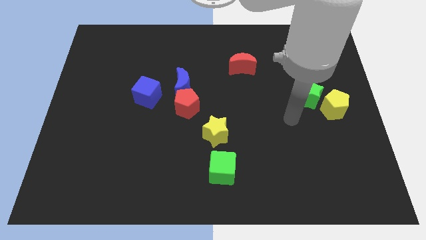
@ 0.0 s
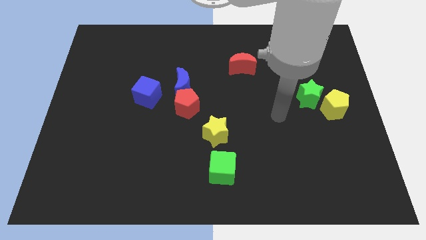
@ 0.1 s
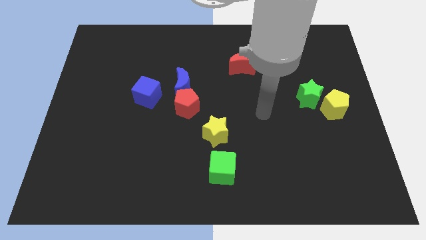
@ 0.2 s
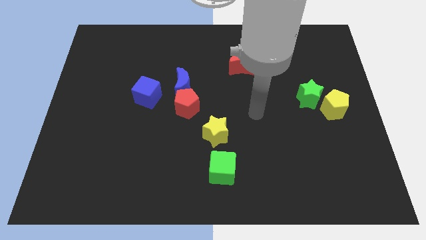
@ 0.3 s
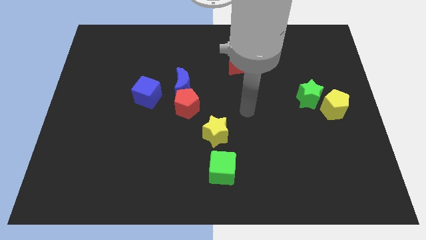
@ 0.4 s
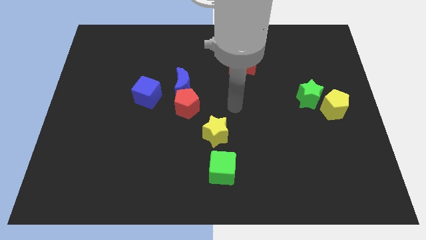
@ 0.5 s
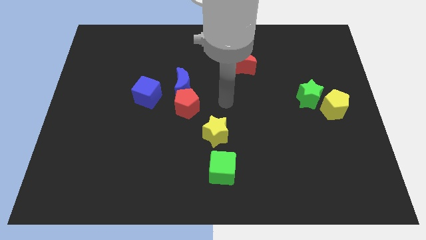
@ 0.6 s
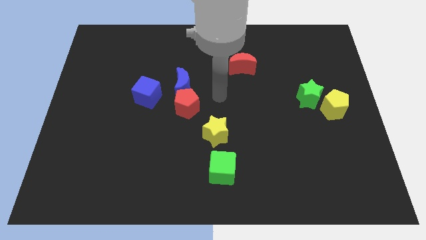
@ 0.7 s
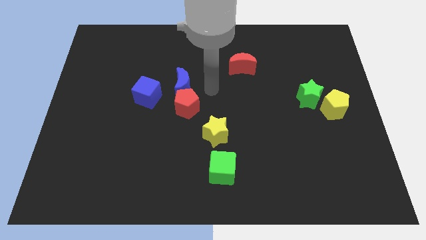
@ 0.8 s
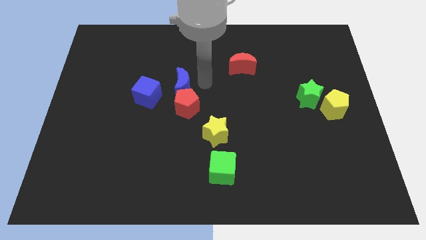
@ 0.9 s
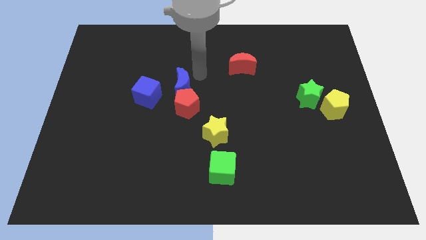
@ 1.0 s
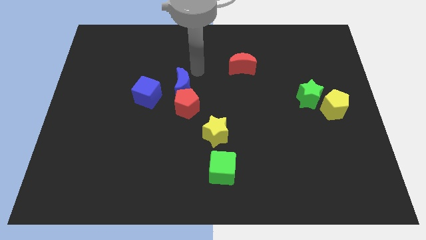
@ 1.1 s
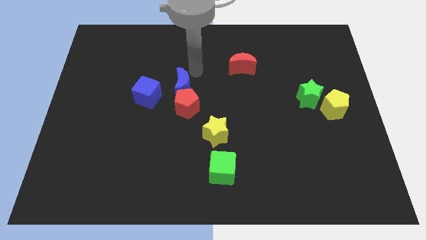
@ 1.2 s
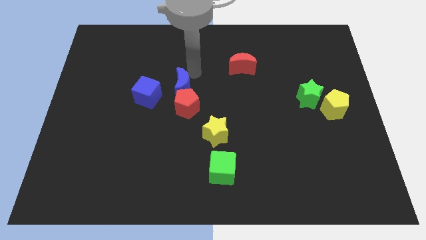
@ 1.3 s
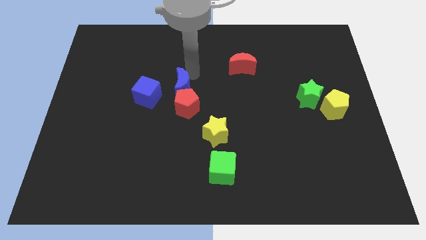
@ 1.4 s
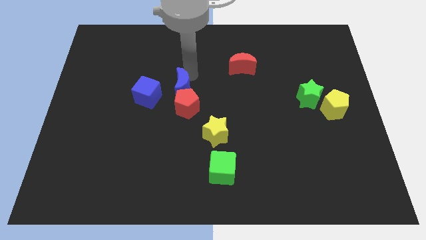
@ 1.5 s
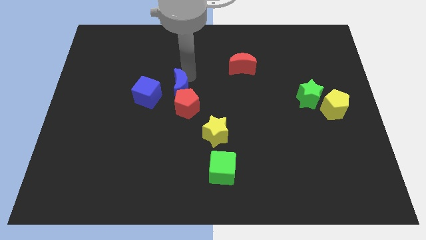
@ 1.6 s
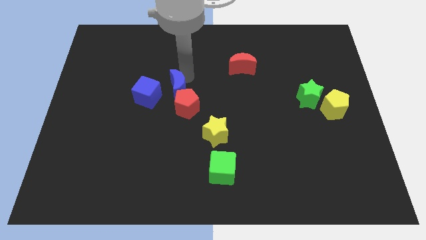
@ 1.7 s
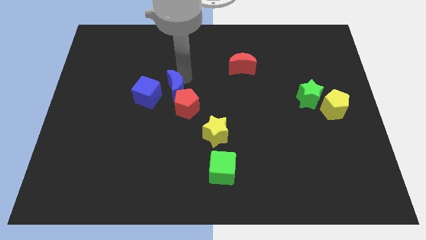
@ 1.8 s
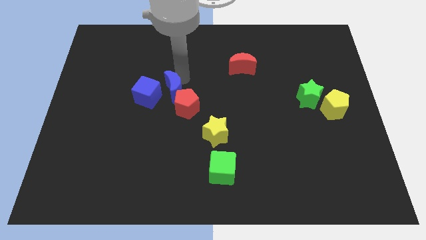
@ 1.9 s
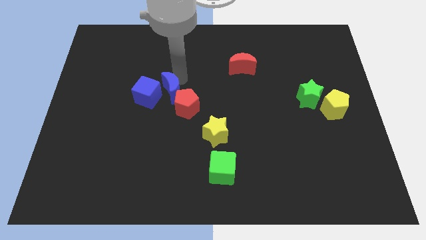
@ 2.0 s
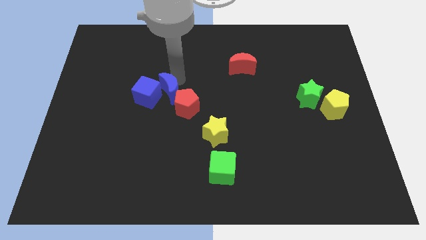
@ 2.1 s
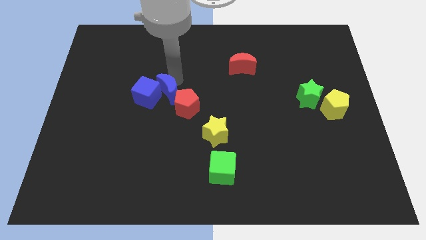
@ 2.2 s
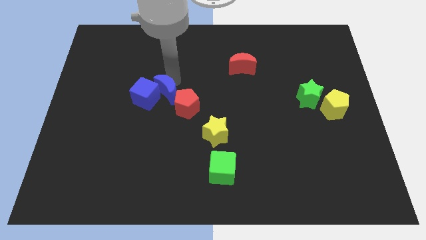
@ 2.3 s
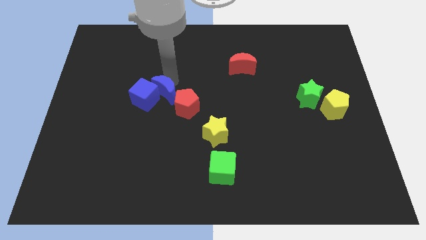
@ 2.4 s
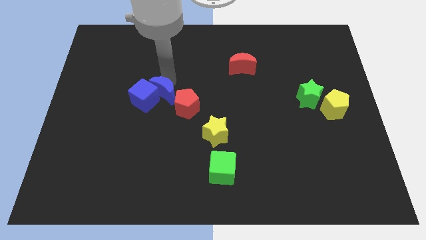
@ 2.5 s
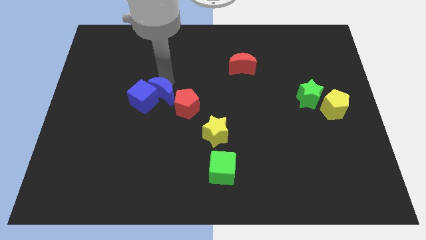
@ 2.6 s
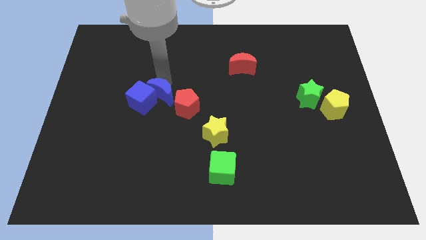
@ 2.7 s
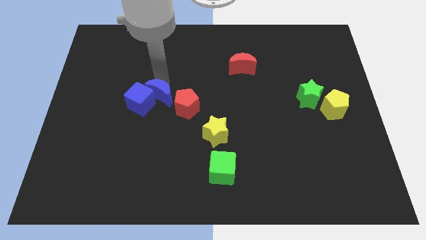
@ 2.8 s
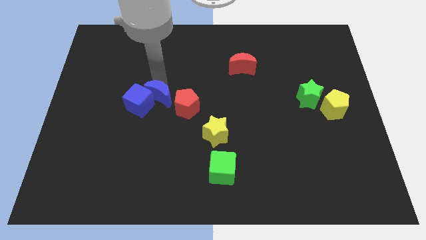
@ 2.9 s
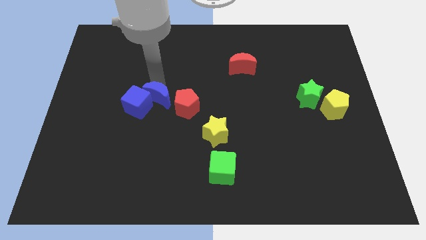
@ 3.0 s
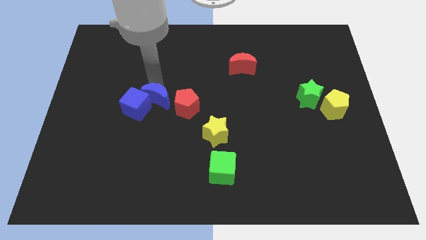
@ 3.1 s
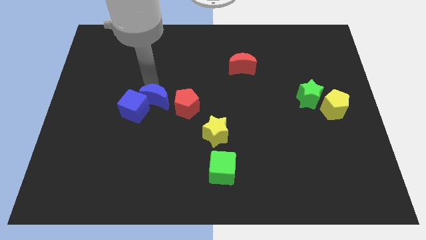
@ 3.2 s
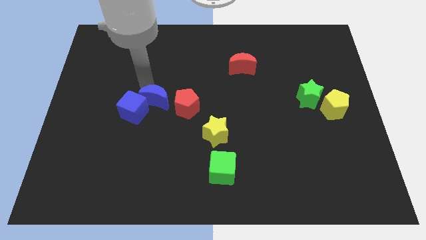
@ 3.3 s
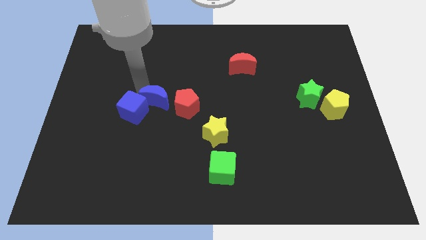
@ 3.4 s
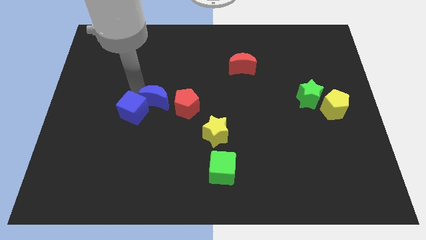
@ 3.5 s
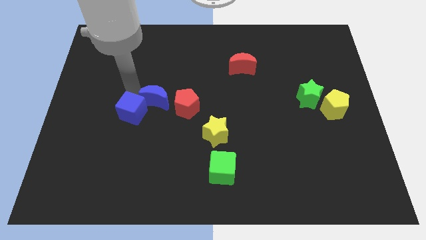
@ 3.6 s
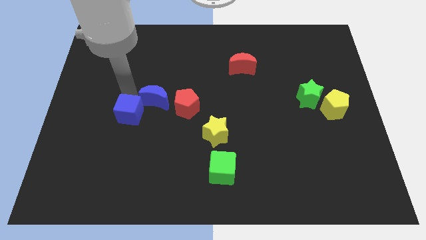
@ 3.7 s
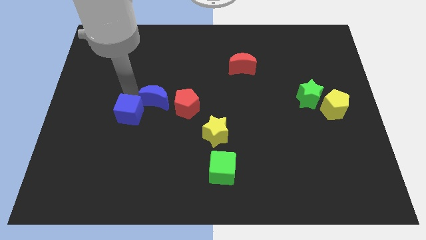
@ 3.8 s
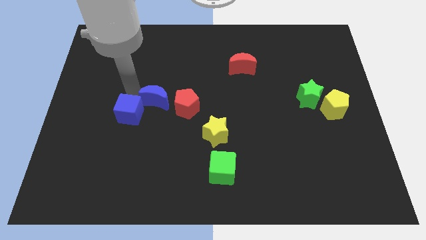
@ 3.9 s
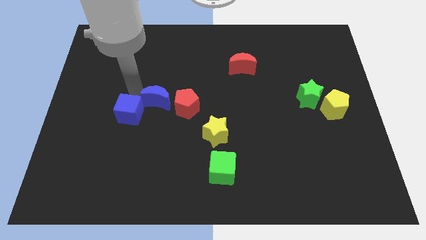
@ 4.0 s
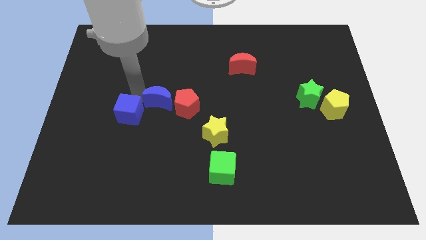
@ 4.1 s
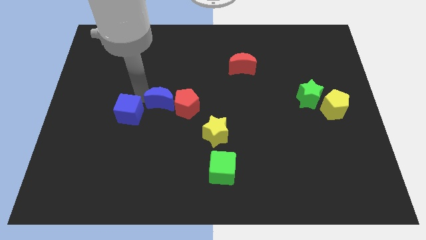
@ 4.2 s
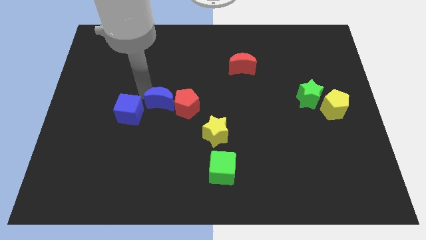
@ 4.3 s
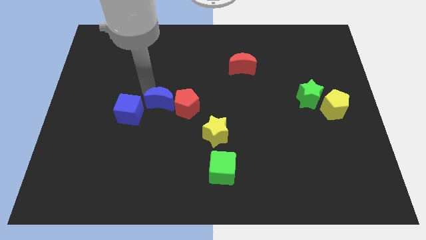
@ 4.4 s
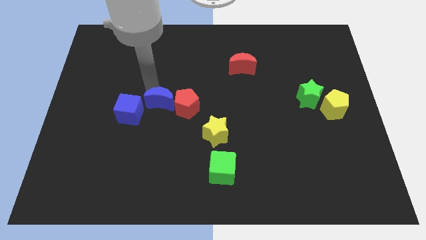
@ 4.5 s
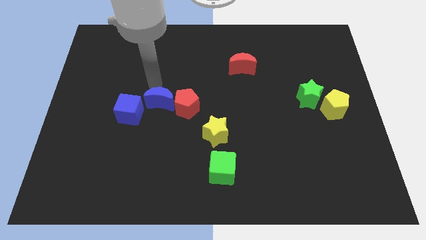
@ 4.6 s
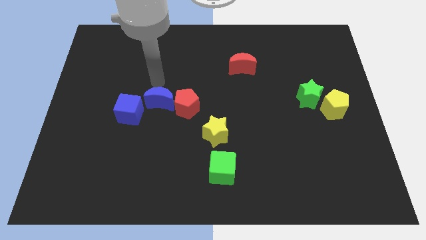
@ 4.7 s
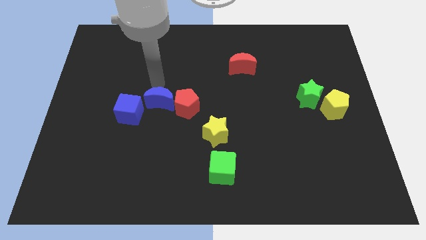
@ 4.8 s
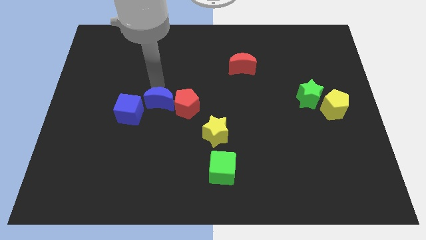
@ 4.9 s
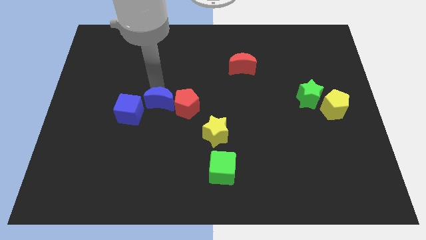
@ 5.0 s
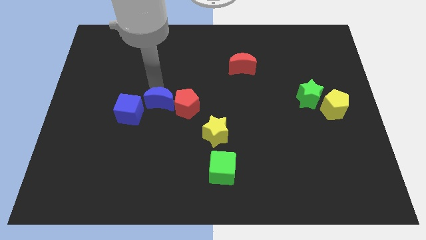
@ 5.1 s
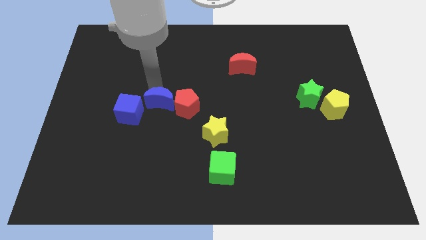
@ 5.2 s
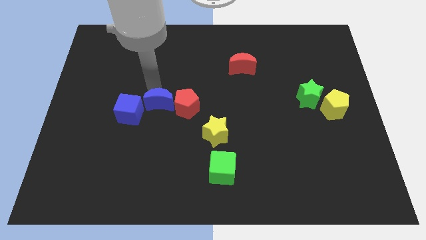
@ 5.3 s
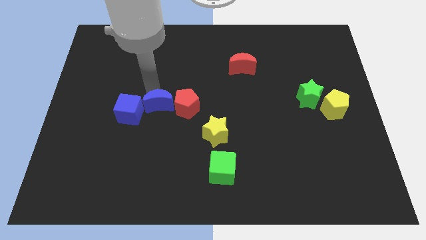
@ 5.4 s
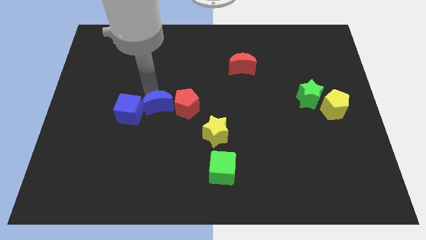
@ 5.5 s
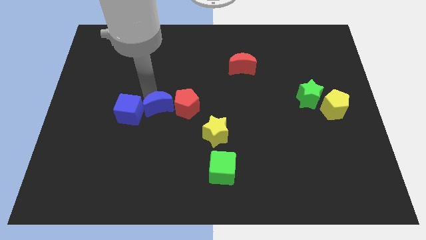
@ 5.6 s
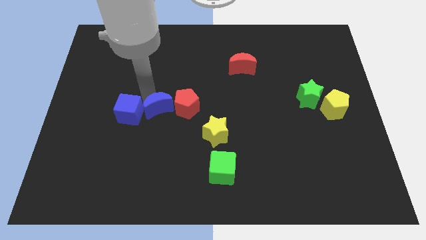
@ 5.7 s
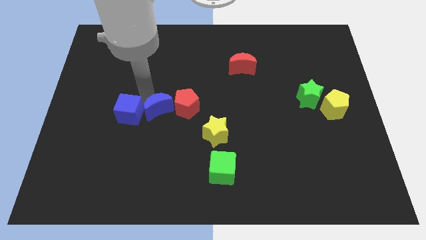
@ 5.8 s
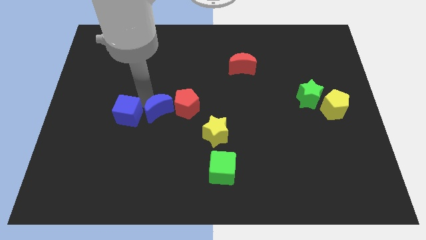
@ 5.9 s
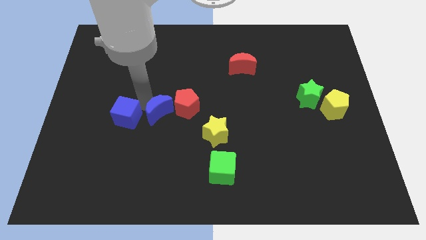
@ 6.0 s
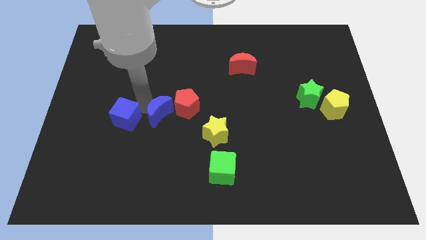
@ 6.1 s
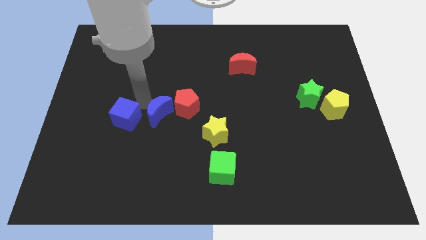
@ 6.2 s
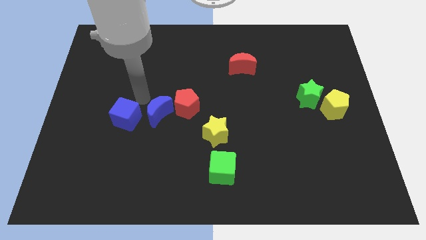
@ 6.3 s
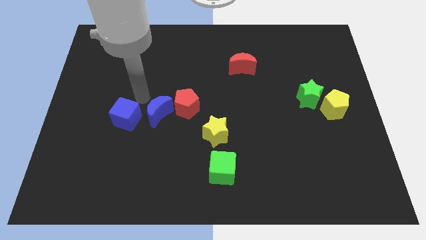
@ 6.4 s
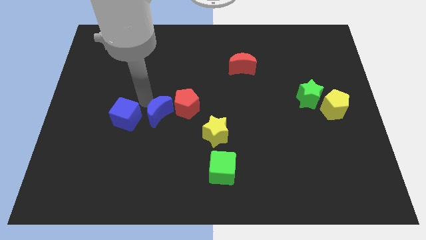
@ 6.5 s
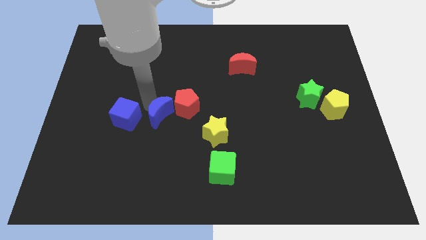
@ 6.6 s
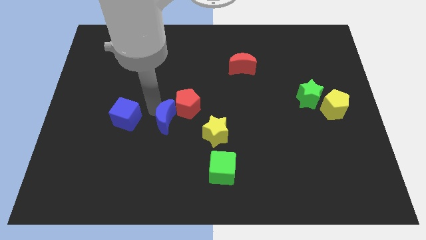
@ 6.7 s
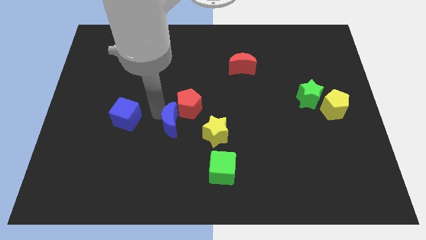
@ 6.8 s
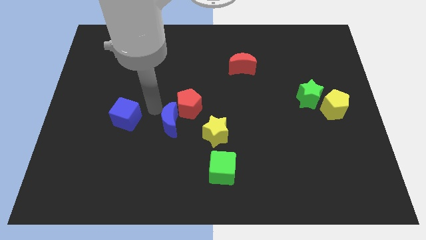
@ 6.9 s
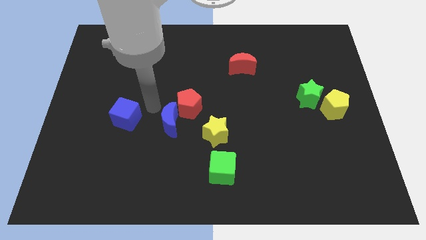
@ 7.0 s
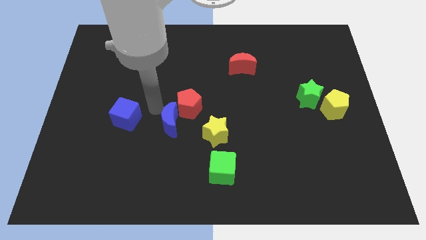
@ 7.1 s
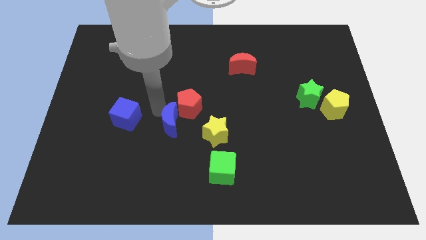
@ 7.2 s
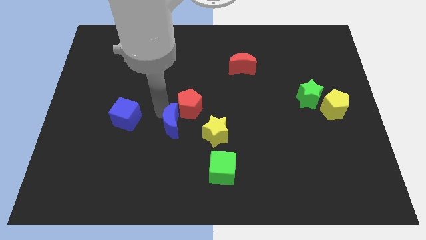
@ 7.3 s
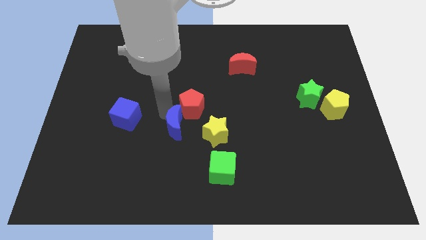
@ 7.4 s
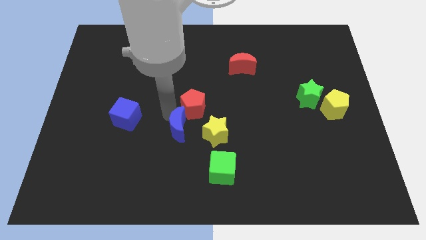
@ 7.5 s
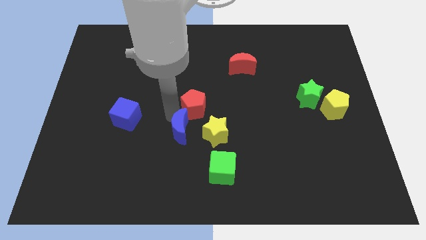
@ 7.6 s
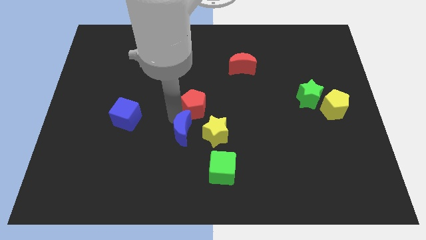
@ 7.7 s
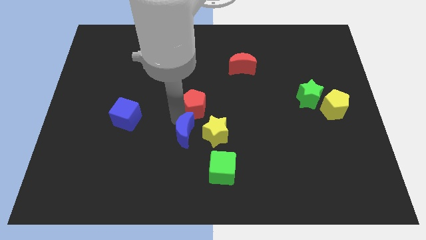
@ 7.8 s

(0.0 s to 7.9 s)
put the blue moon to the top left side of the green cube
